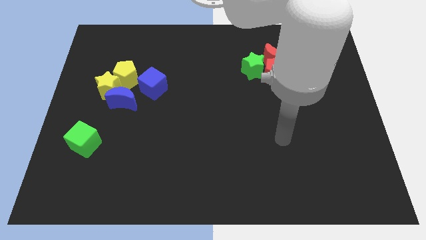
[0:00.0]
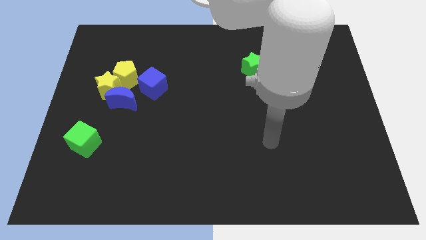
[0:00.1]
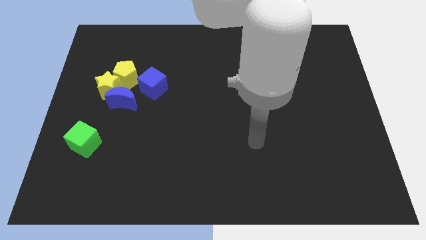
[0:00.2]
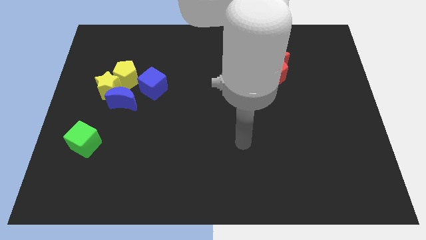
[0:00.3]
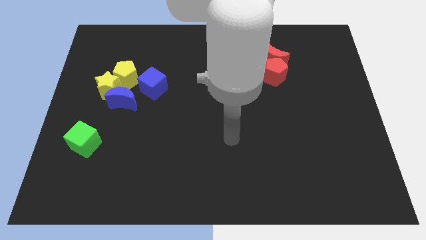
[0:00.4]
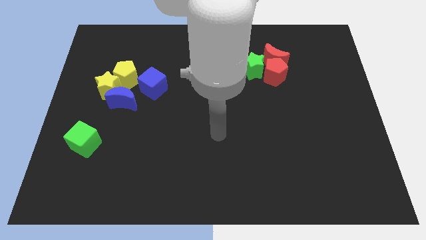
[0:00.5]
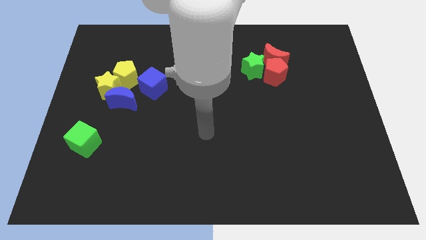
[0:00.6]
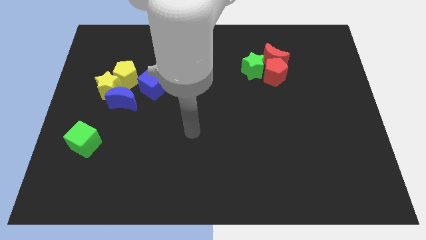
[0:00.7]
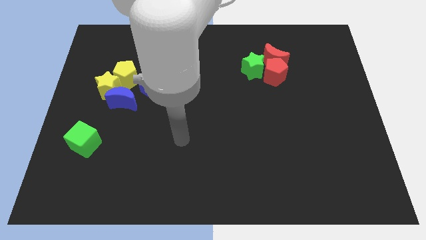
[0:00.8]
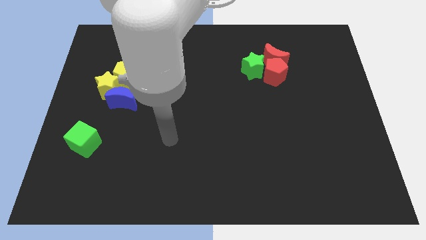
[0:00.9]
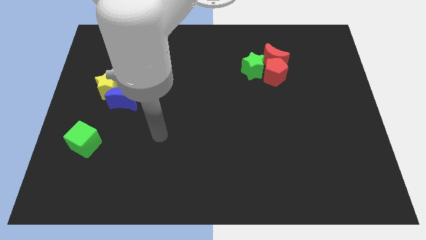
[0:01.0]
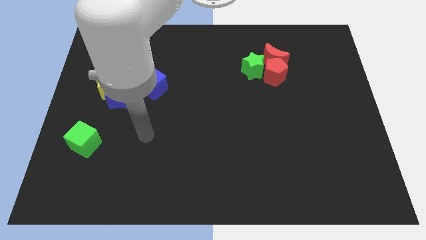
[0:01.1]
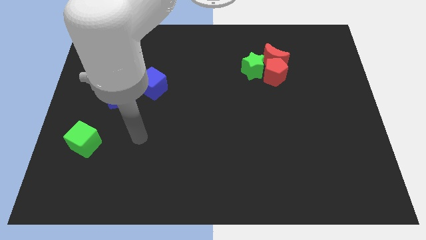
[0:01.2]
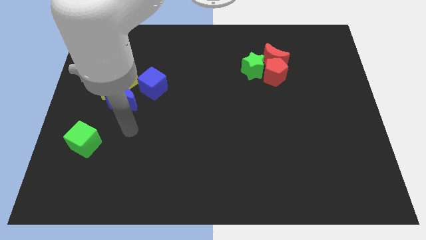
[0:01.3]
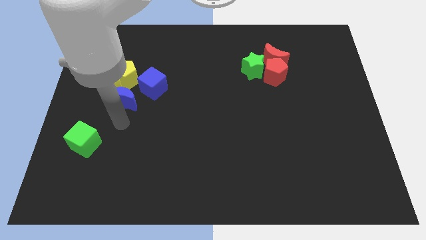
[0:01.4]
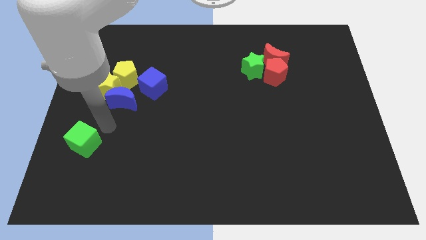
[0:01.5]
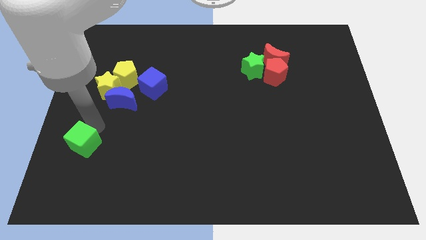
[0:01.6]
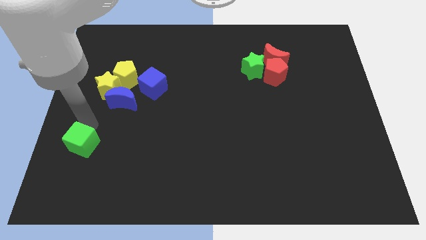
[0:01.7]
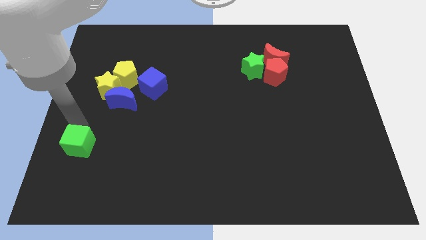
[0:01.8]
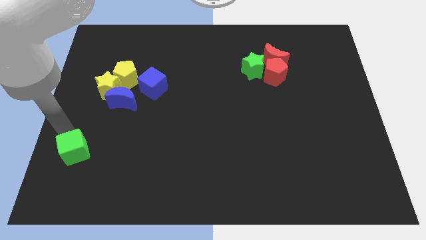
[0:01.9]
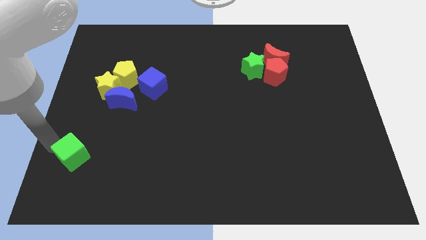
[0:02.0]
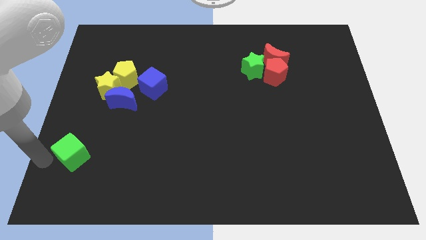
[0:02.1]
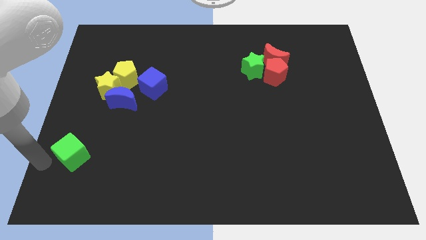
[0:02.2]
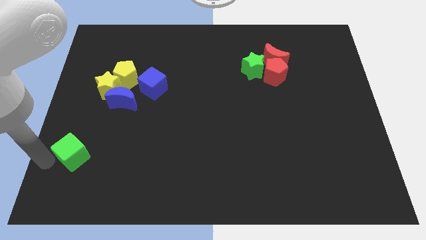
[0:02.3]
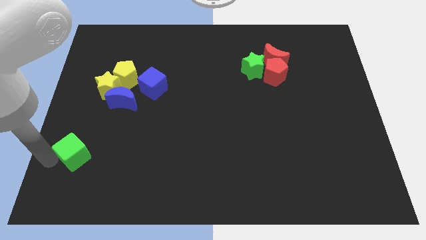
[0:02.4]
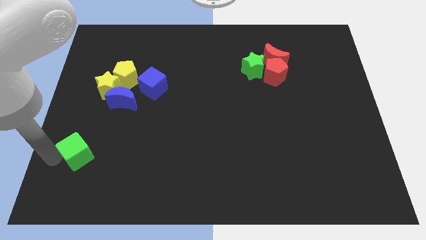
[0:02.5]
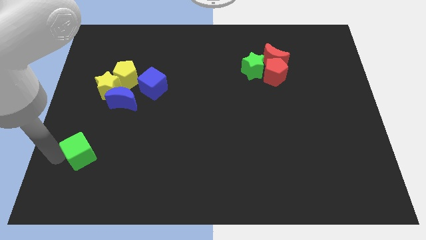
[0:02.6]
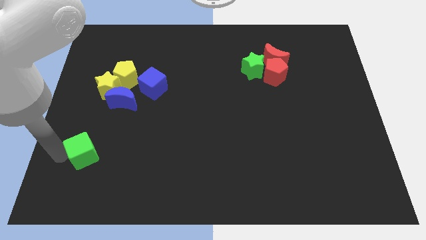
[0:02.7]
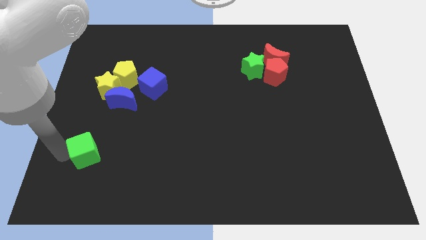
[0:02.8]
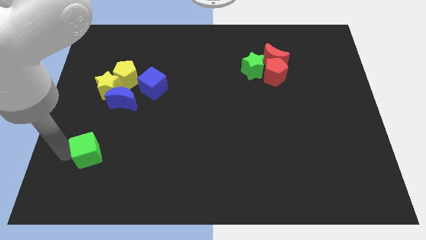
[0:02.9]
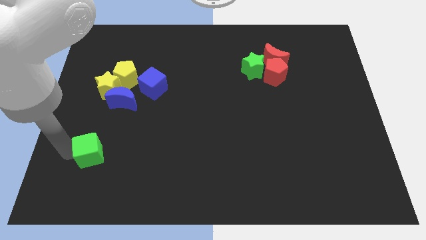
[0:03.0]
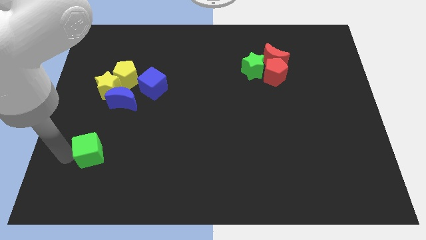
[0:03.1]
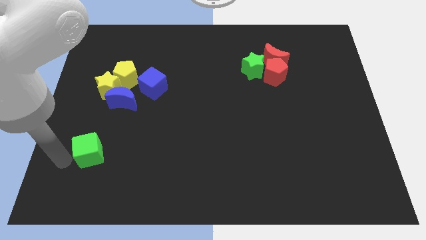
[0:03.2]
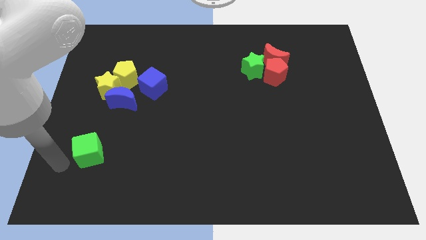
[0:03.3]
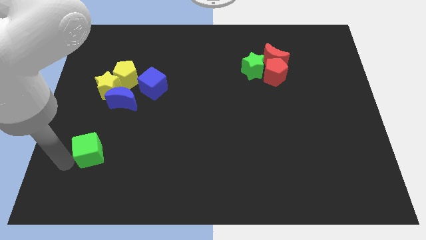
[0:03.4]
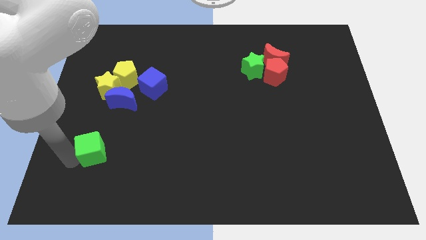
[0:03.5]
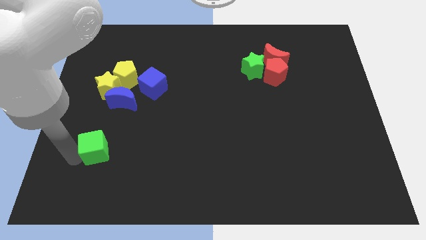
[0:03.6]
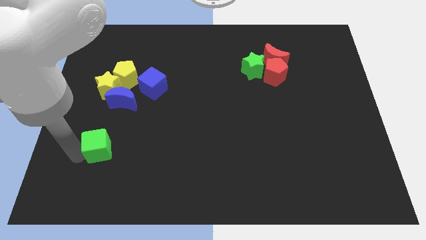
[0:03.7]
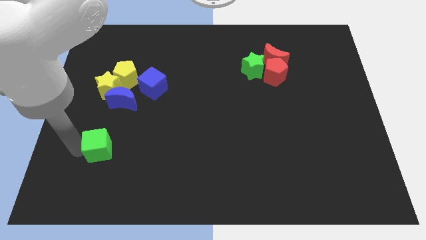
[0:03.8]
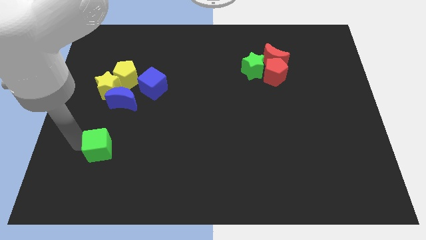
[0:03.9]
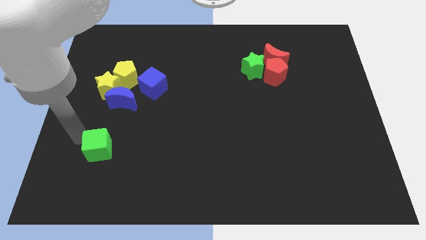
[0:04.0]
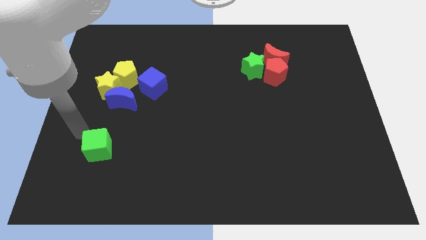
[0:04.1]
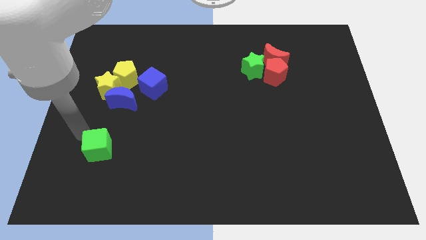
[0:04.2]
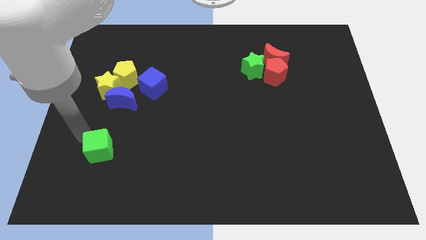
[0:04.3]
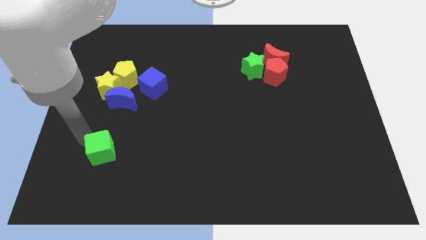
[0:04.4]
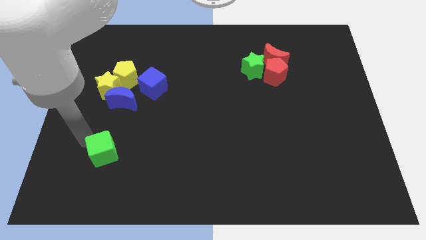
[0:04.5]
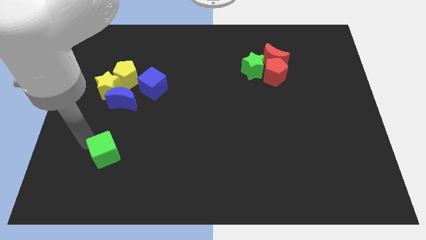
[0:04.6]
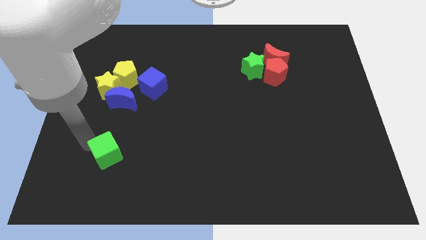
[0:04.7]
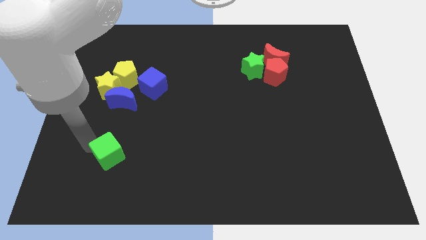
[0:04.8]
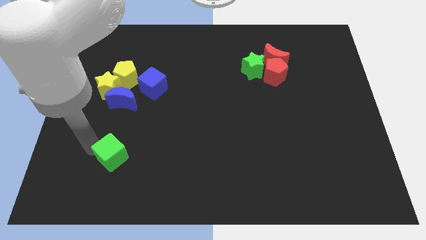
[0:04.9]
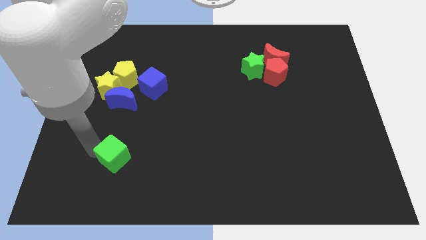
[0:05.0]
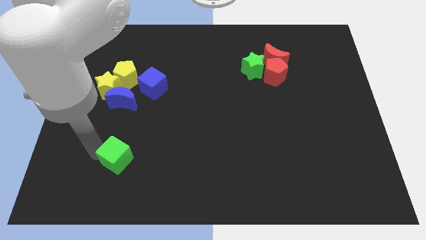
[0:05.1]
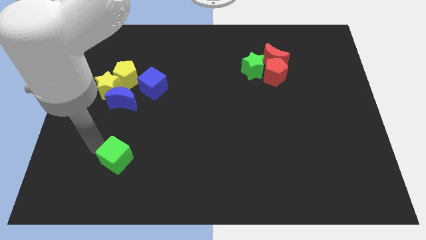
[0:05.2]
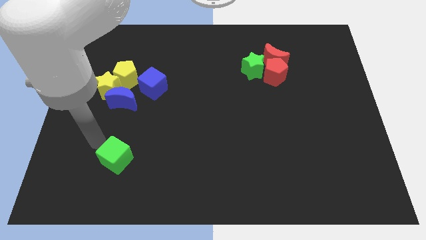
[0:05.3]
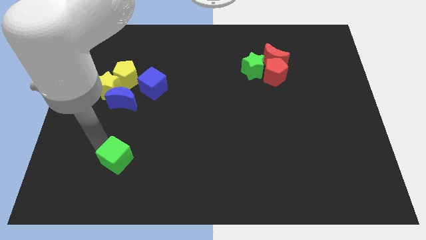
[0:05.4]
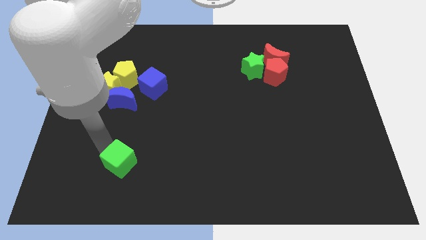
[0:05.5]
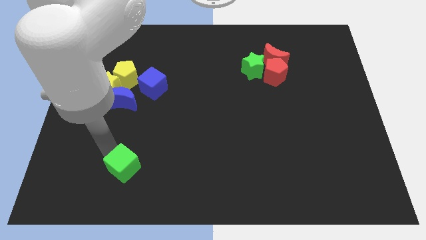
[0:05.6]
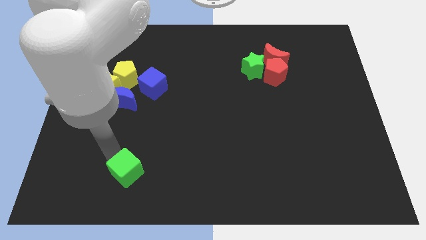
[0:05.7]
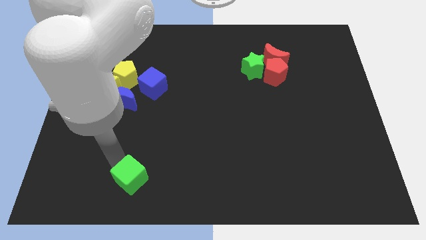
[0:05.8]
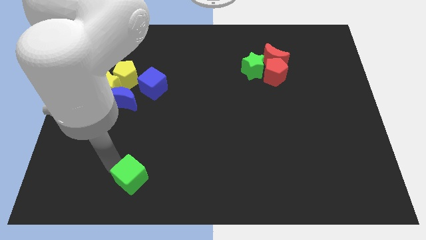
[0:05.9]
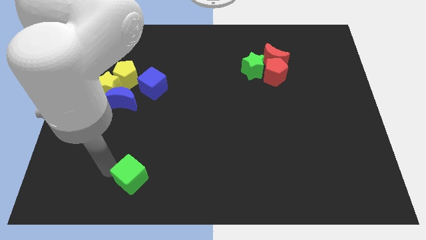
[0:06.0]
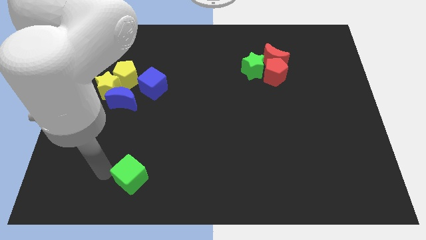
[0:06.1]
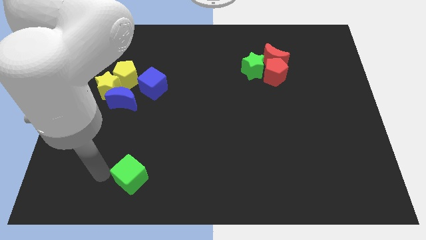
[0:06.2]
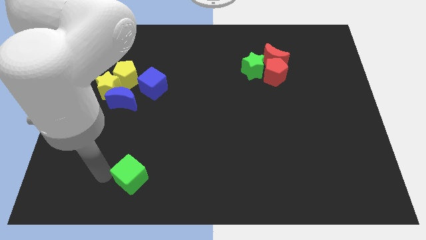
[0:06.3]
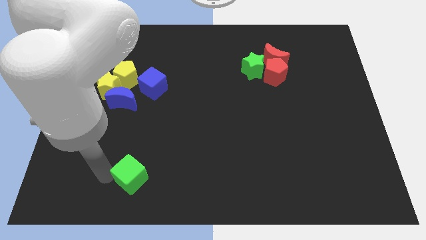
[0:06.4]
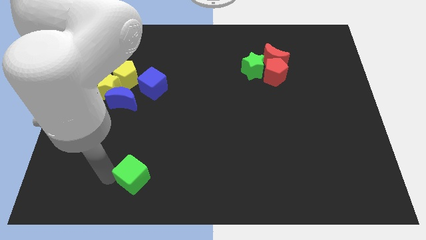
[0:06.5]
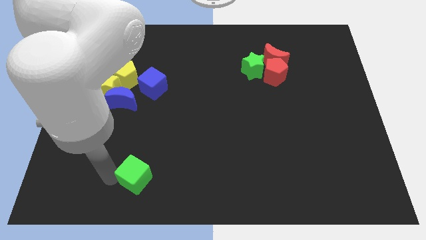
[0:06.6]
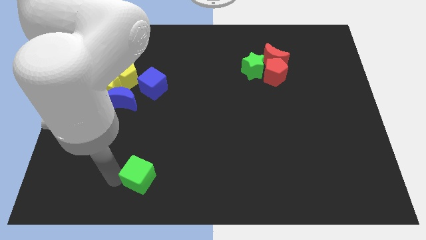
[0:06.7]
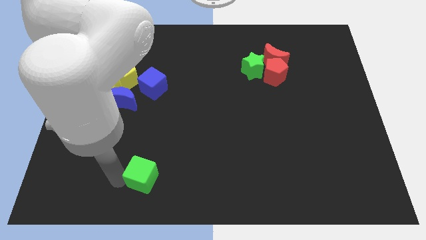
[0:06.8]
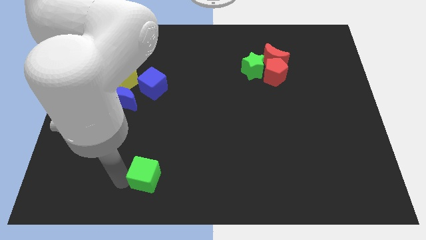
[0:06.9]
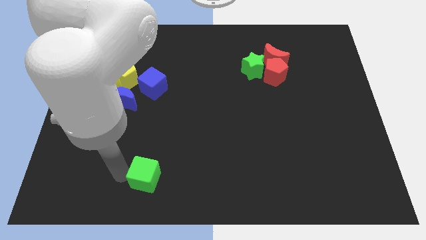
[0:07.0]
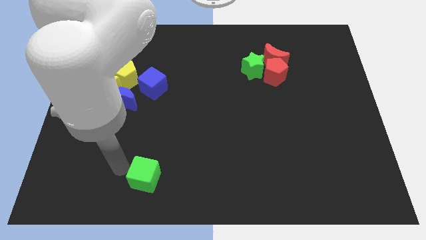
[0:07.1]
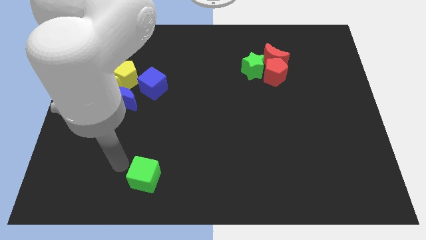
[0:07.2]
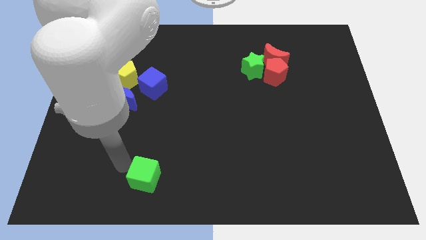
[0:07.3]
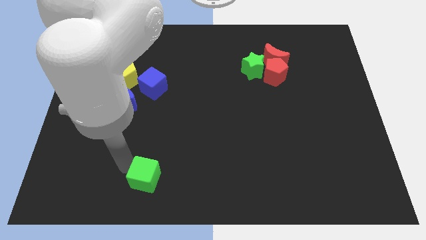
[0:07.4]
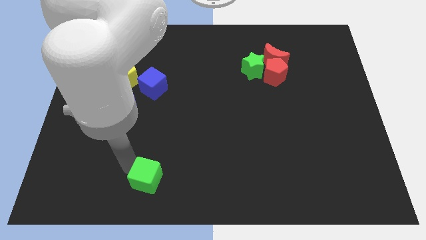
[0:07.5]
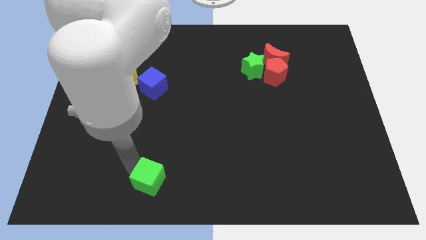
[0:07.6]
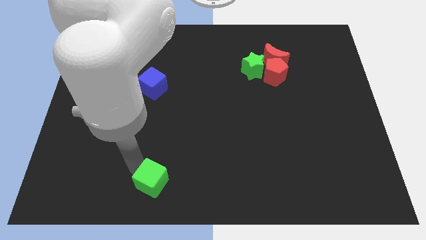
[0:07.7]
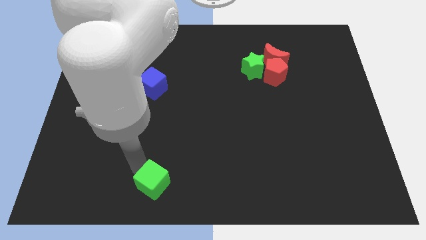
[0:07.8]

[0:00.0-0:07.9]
move the green cube to the bottom
